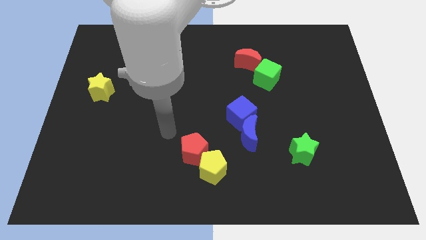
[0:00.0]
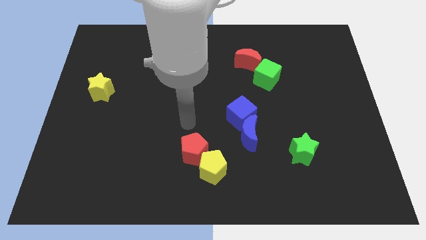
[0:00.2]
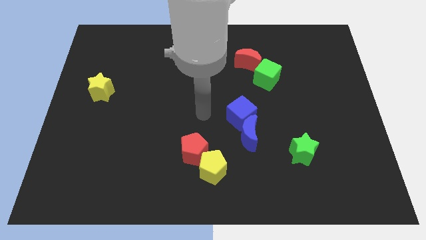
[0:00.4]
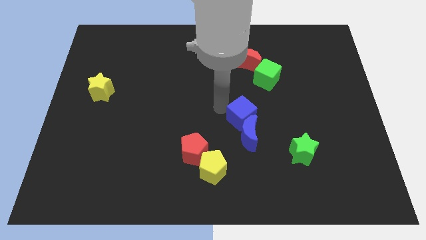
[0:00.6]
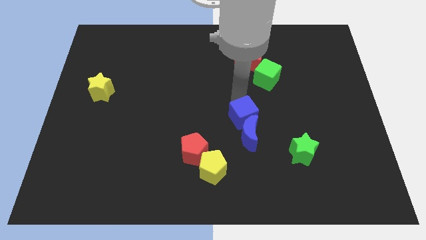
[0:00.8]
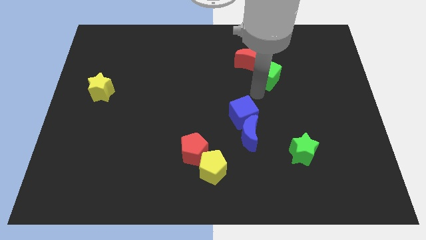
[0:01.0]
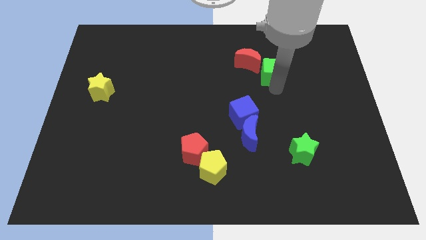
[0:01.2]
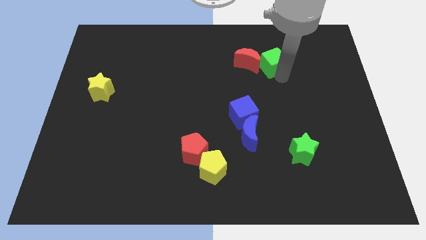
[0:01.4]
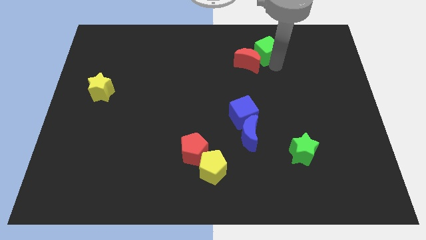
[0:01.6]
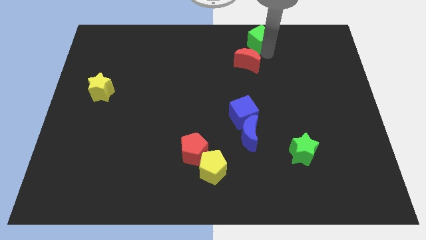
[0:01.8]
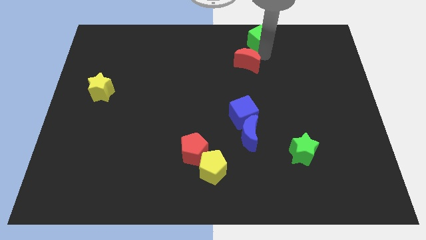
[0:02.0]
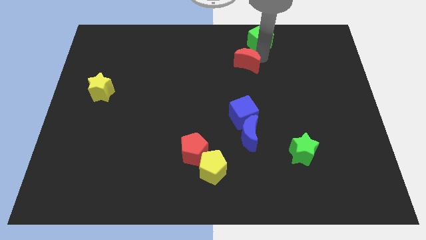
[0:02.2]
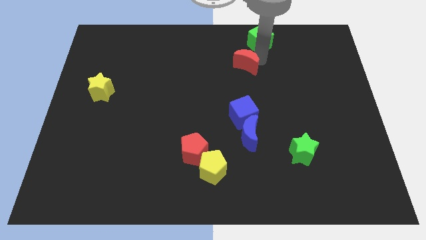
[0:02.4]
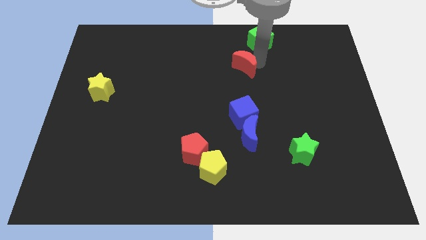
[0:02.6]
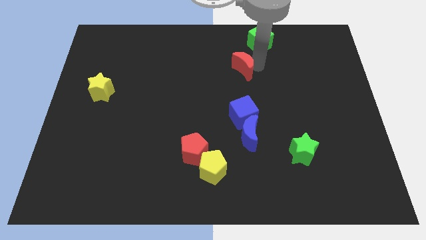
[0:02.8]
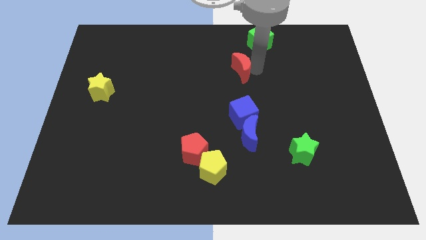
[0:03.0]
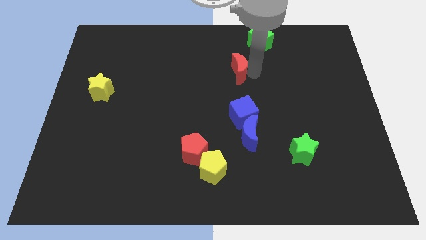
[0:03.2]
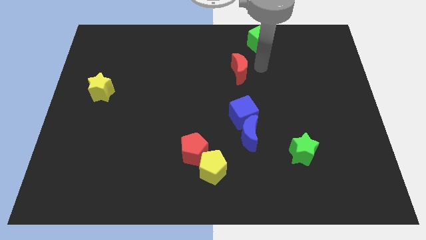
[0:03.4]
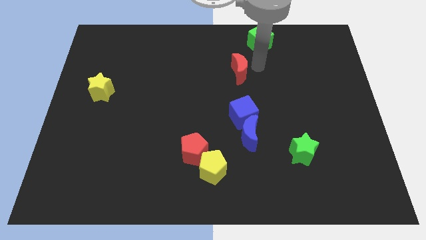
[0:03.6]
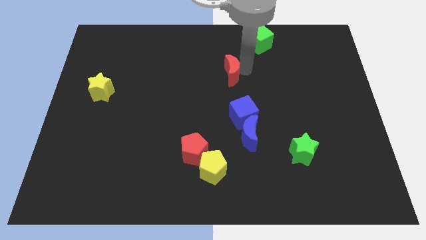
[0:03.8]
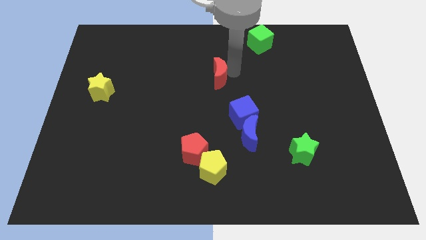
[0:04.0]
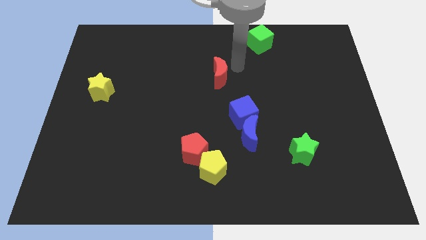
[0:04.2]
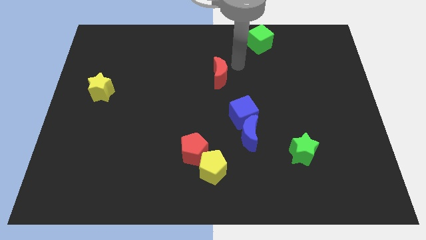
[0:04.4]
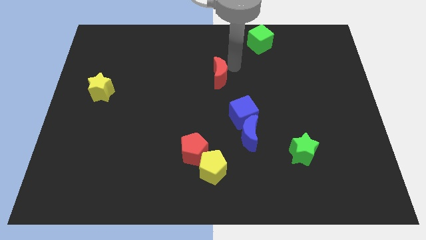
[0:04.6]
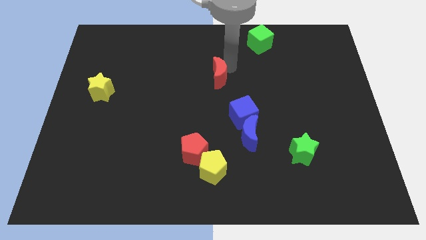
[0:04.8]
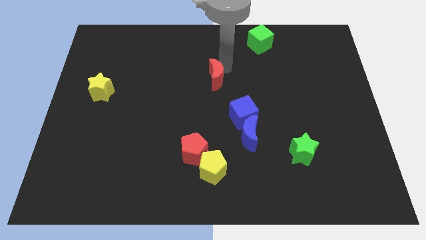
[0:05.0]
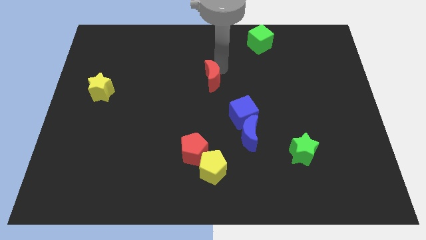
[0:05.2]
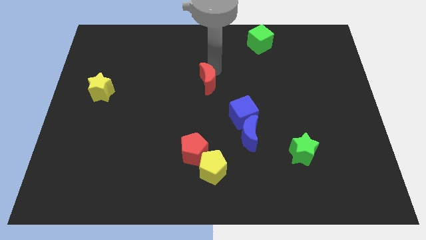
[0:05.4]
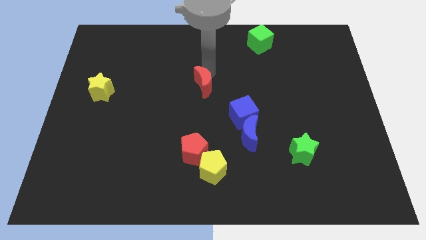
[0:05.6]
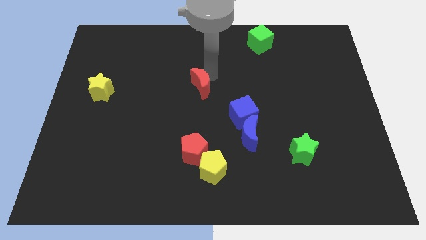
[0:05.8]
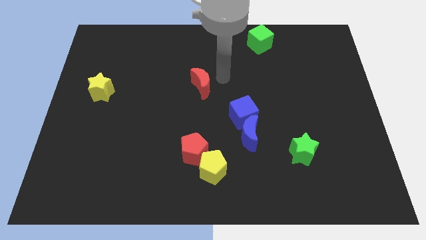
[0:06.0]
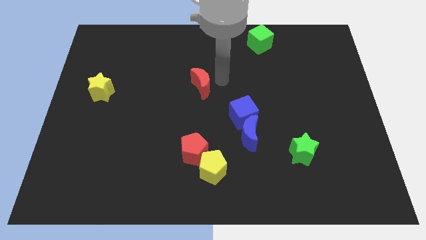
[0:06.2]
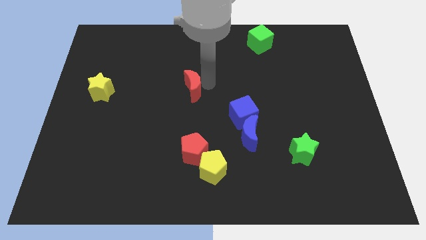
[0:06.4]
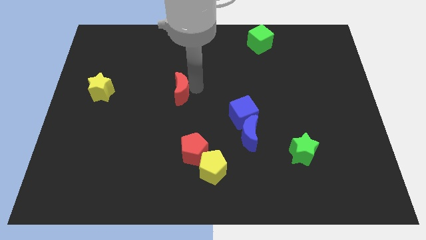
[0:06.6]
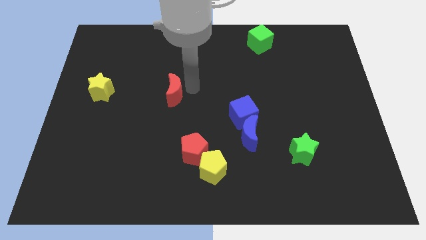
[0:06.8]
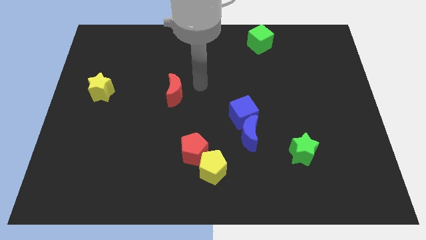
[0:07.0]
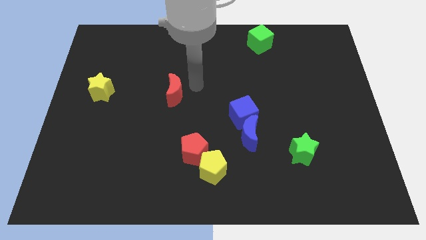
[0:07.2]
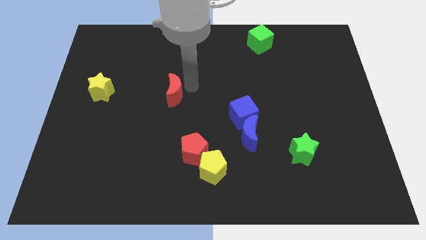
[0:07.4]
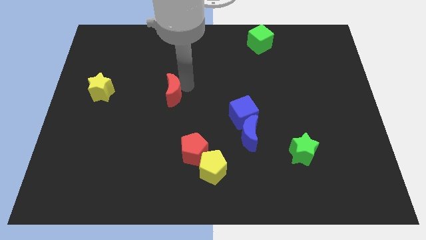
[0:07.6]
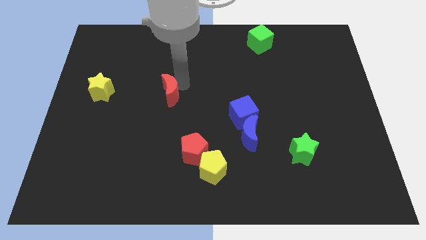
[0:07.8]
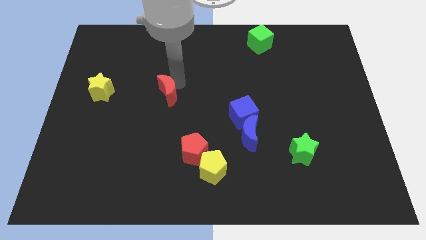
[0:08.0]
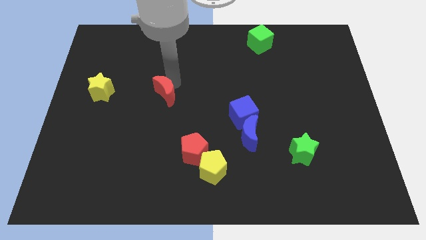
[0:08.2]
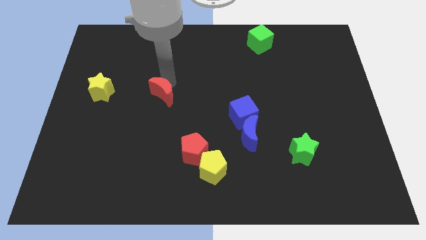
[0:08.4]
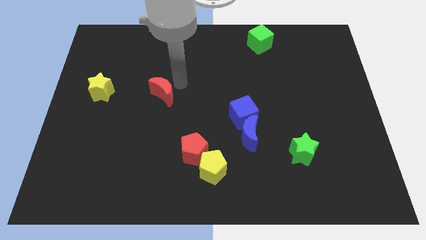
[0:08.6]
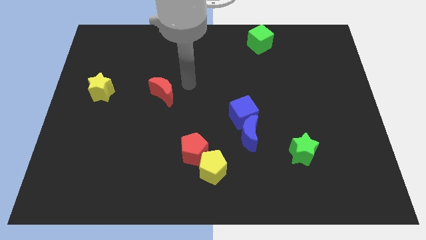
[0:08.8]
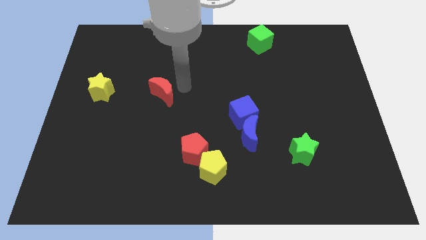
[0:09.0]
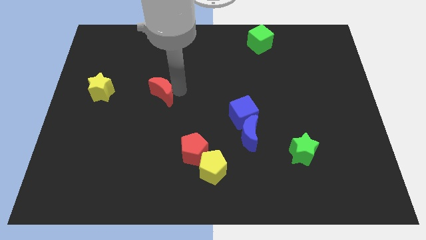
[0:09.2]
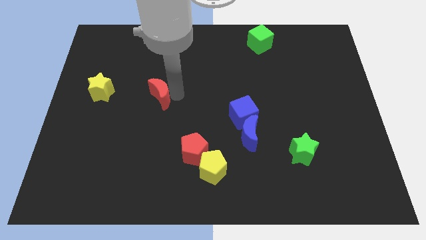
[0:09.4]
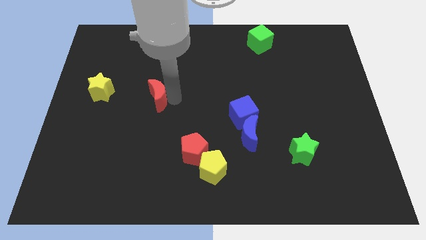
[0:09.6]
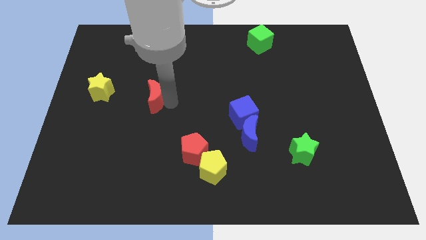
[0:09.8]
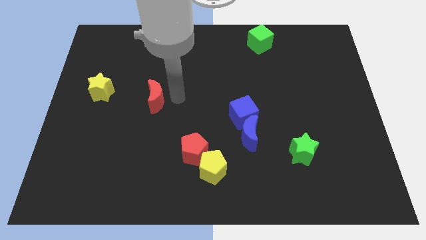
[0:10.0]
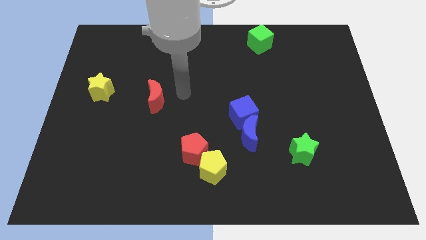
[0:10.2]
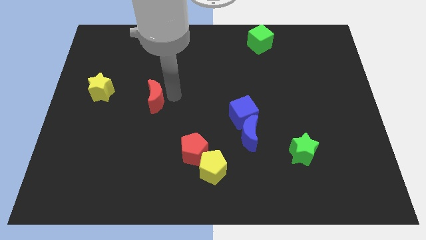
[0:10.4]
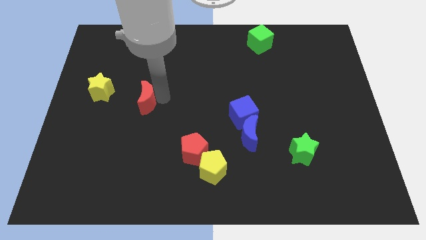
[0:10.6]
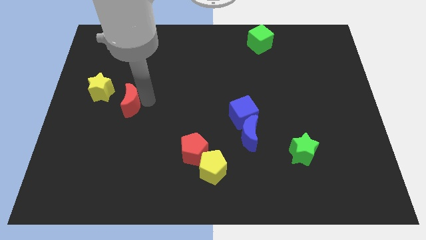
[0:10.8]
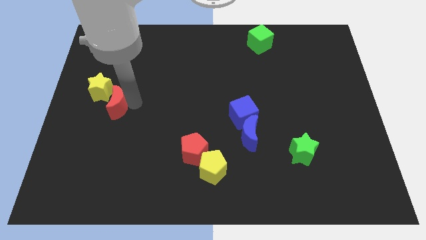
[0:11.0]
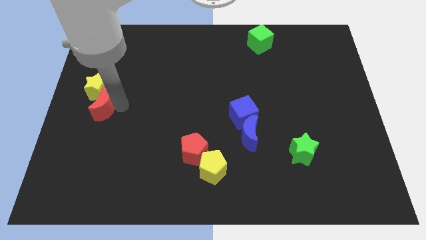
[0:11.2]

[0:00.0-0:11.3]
push the red moon to the left side of the board

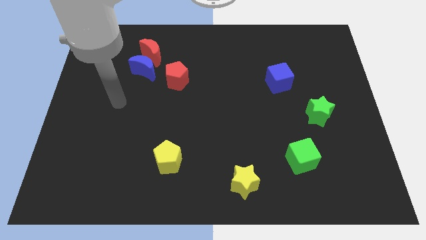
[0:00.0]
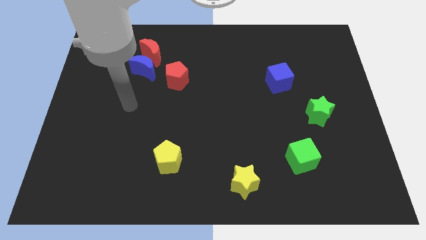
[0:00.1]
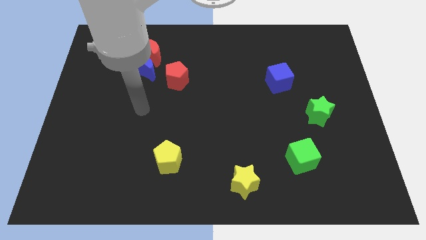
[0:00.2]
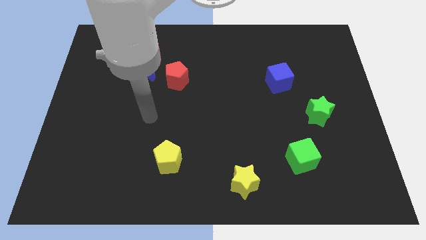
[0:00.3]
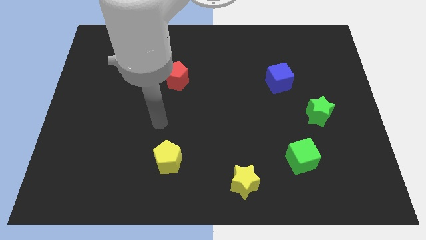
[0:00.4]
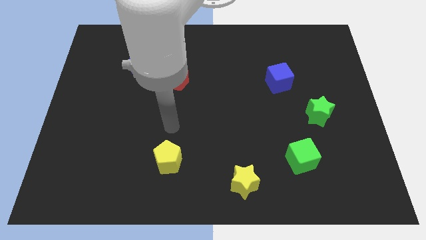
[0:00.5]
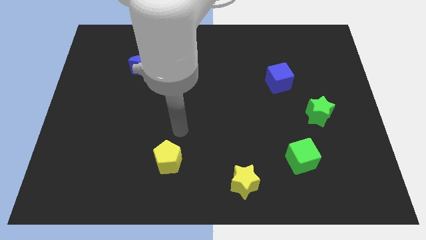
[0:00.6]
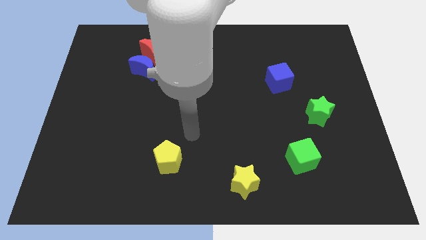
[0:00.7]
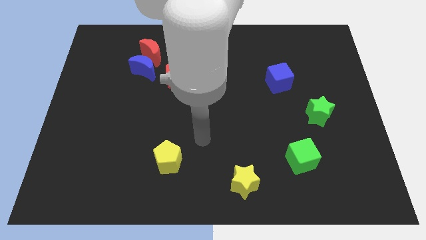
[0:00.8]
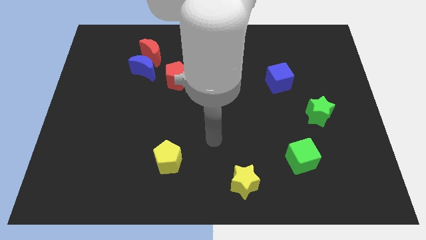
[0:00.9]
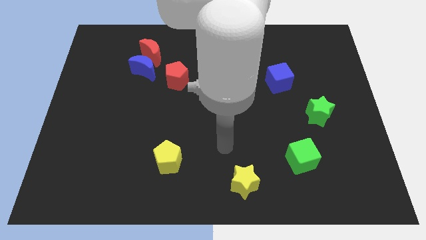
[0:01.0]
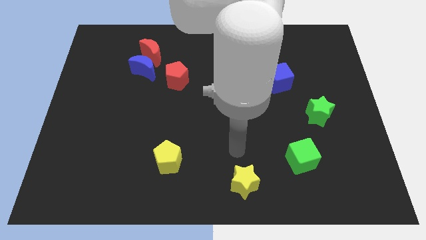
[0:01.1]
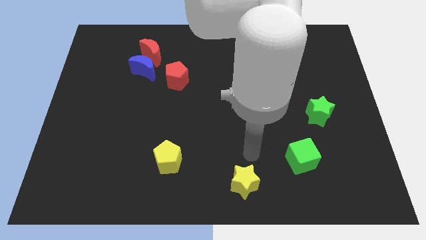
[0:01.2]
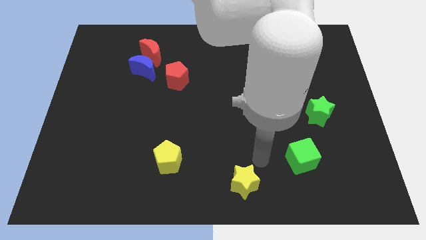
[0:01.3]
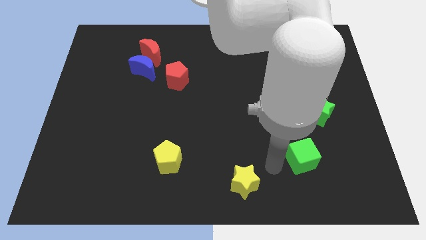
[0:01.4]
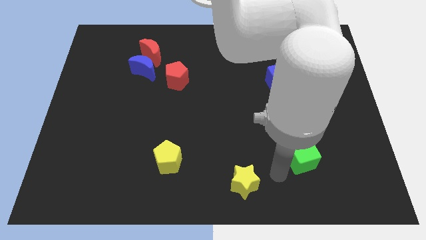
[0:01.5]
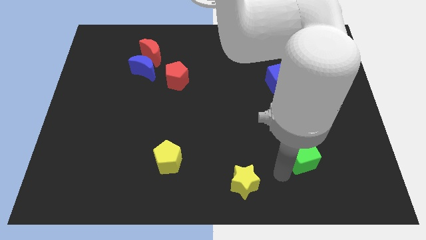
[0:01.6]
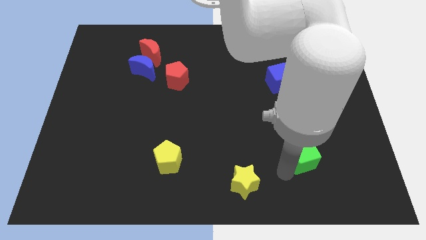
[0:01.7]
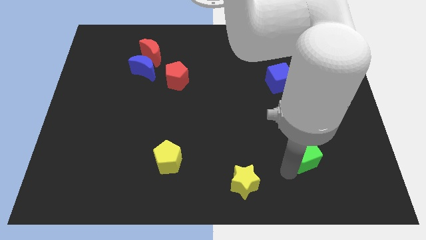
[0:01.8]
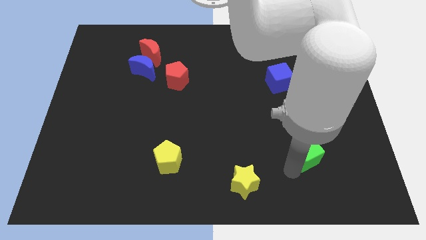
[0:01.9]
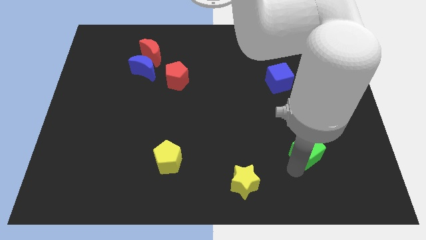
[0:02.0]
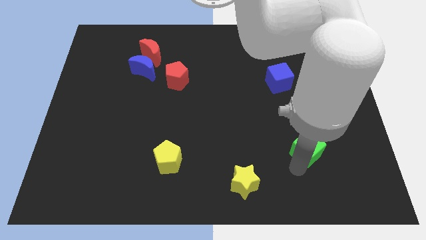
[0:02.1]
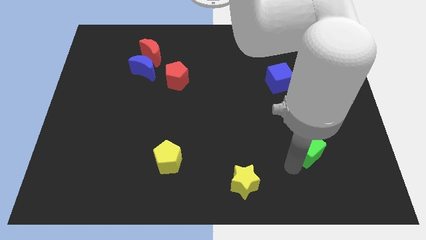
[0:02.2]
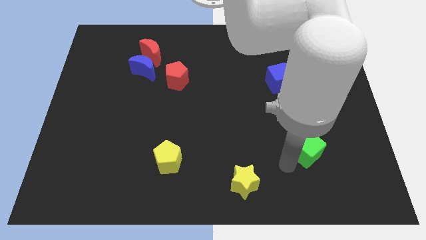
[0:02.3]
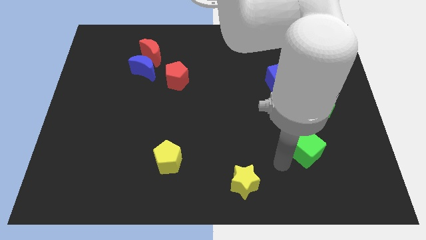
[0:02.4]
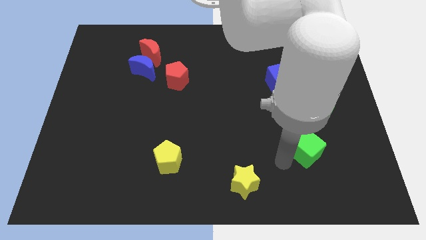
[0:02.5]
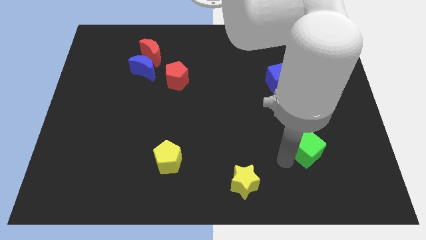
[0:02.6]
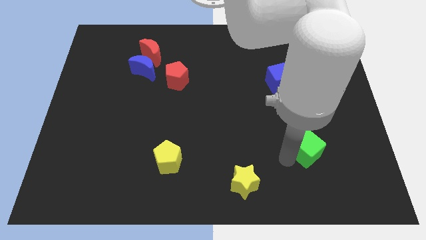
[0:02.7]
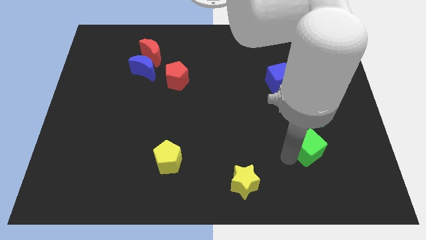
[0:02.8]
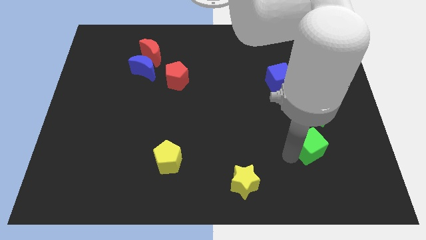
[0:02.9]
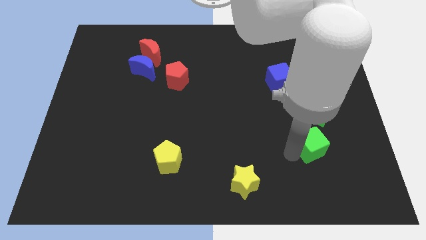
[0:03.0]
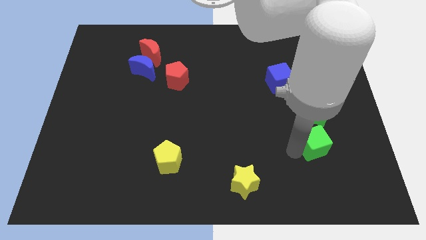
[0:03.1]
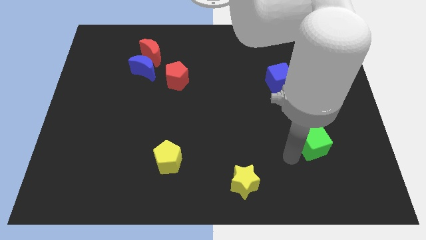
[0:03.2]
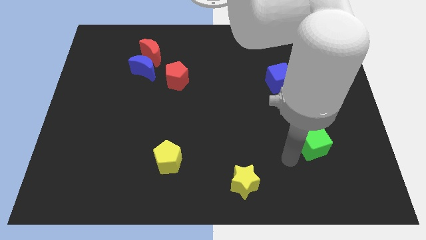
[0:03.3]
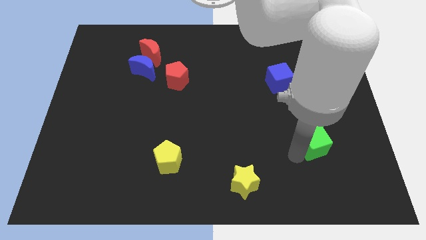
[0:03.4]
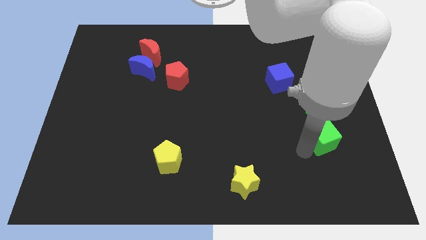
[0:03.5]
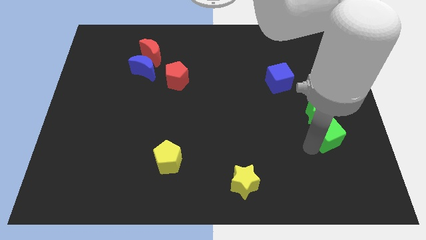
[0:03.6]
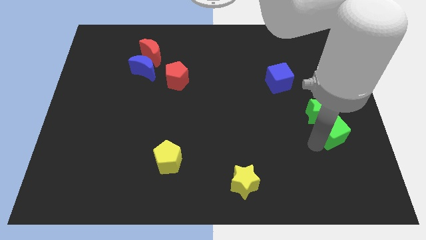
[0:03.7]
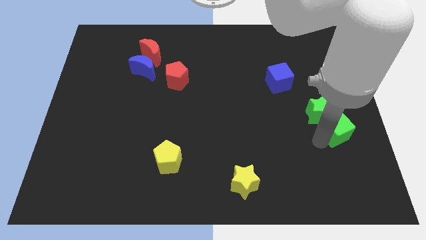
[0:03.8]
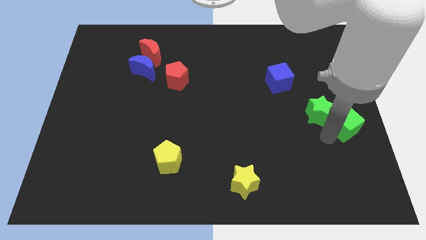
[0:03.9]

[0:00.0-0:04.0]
move the green cube to the center right
